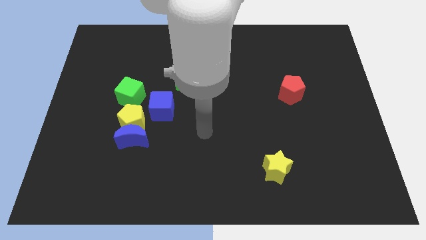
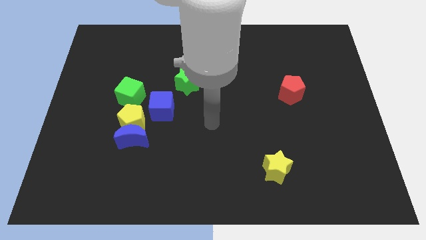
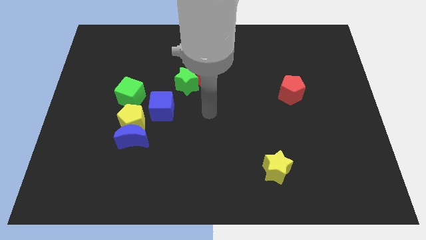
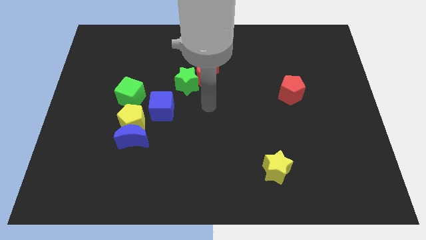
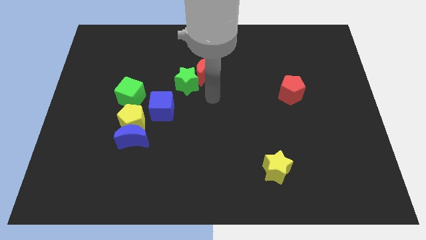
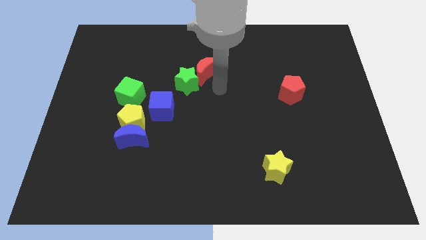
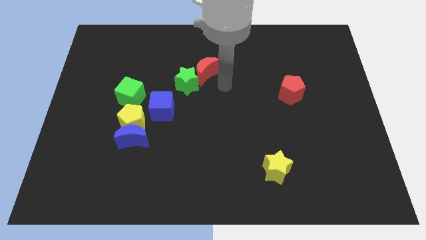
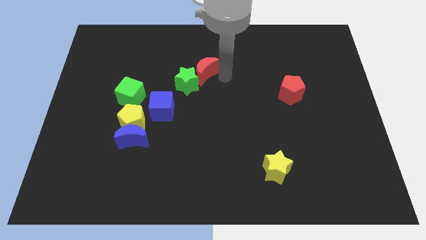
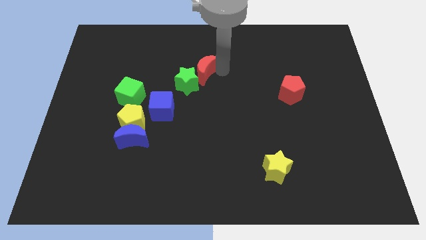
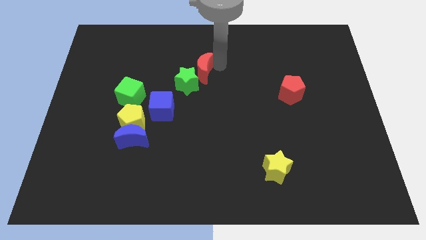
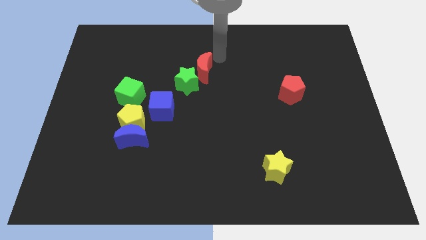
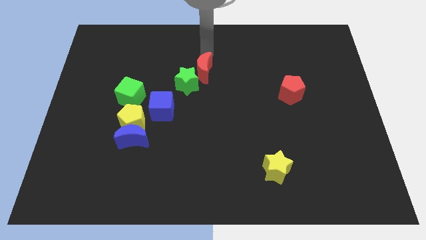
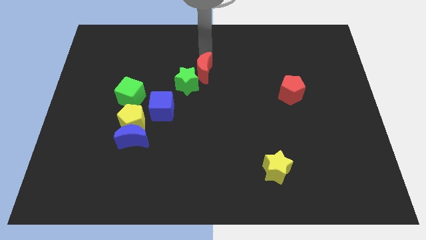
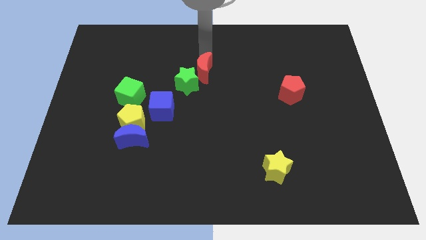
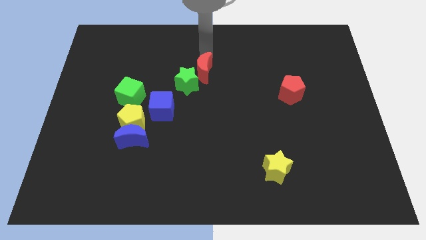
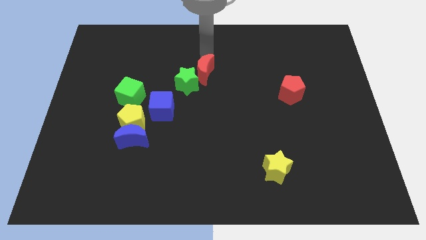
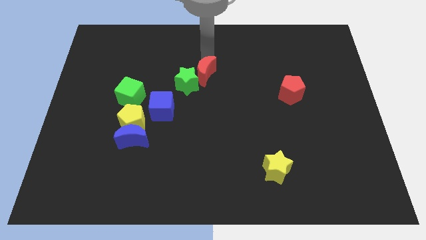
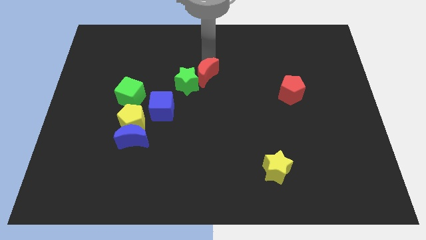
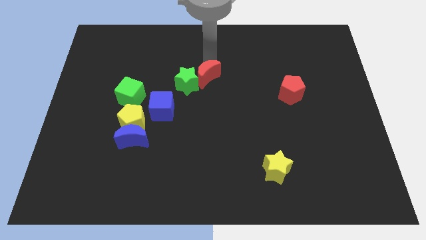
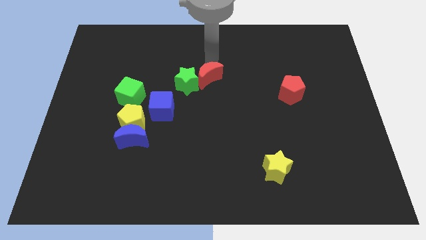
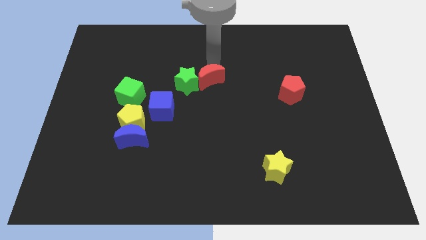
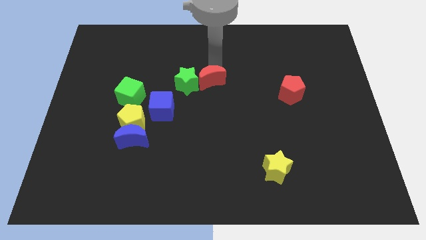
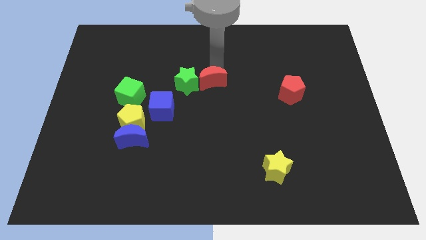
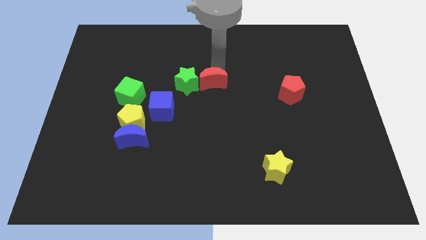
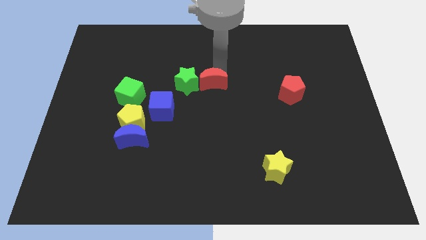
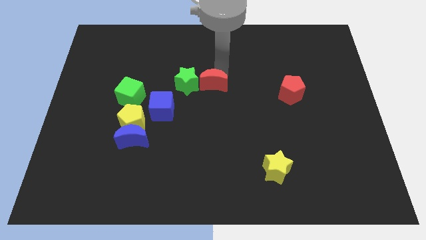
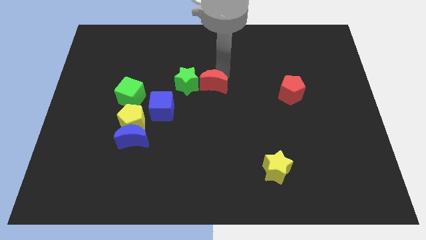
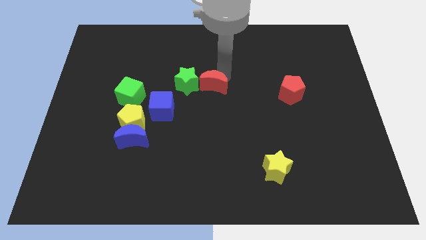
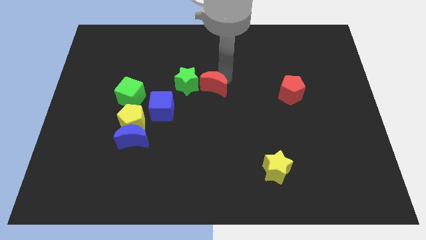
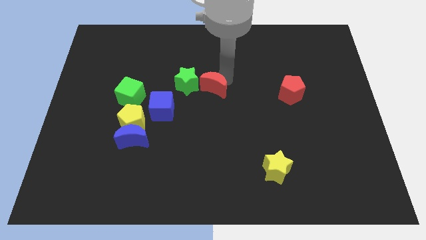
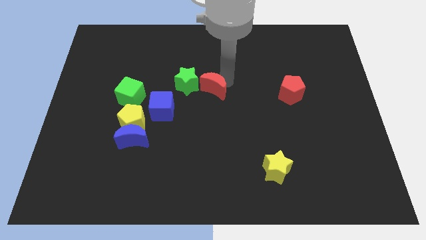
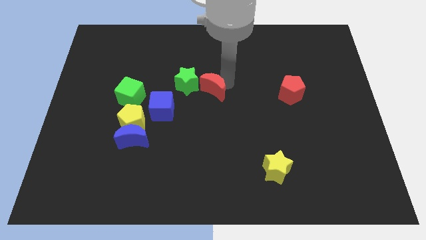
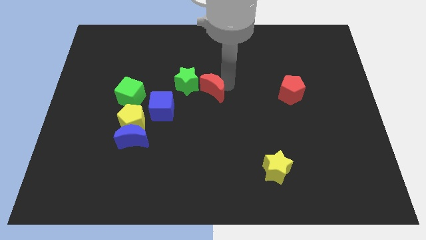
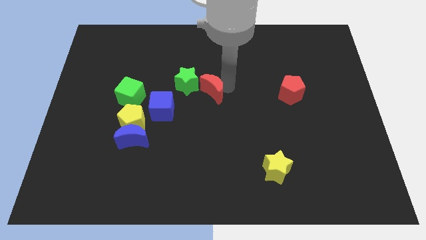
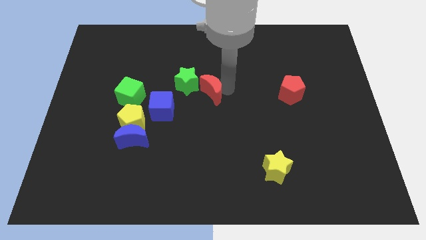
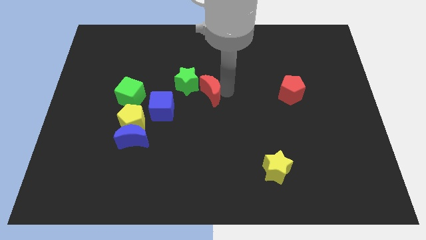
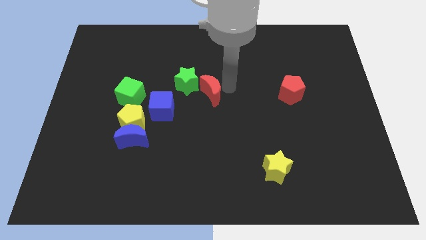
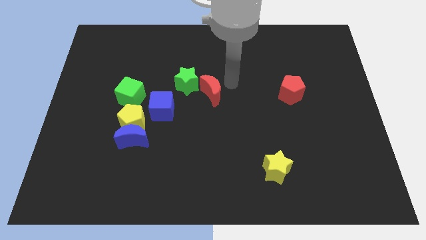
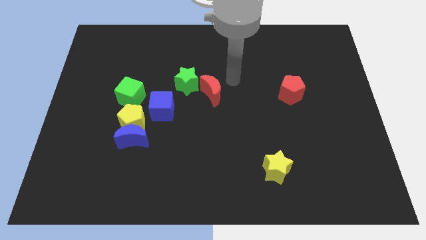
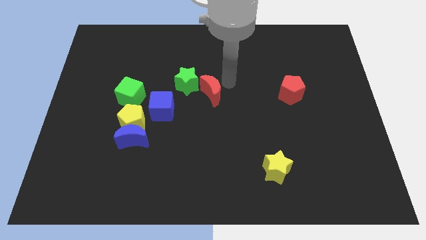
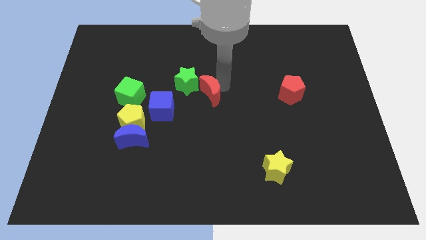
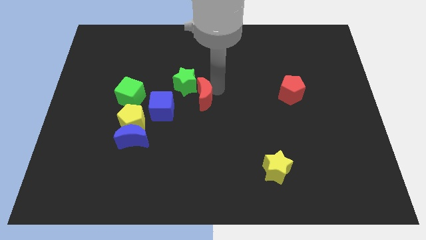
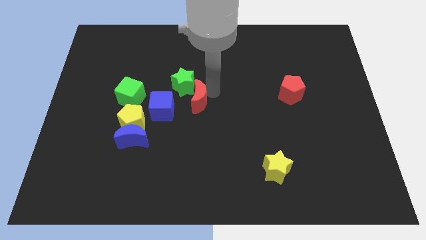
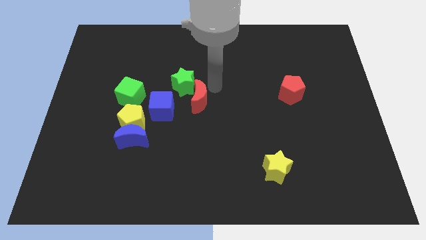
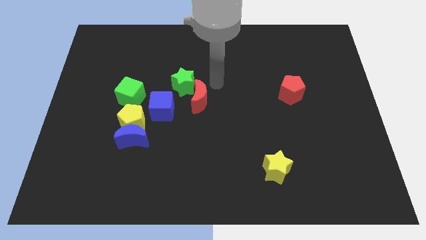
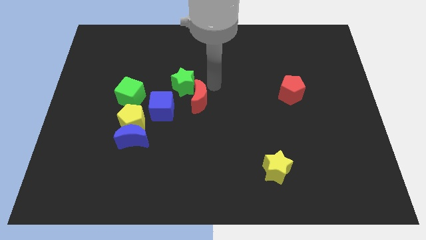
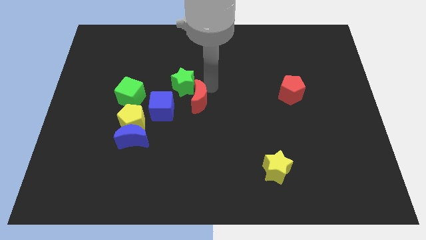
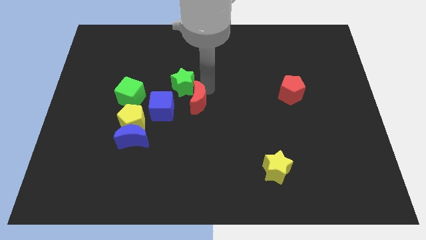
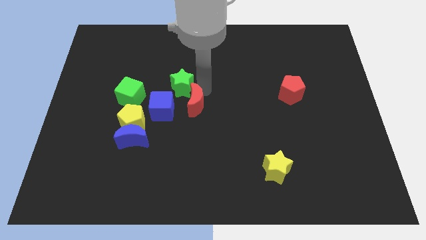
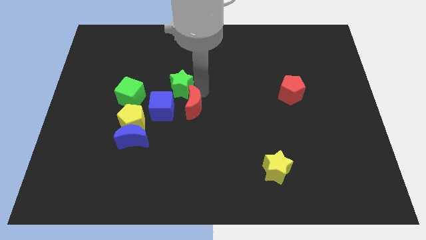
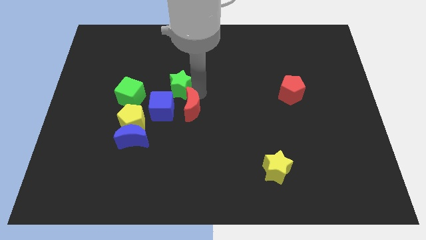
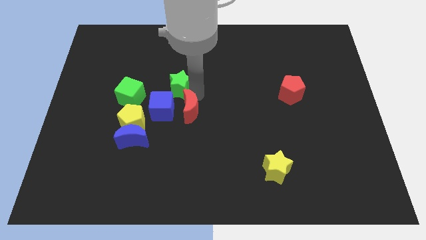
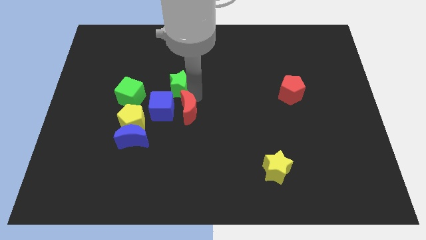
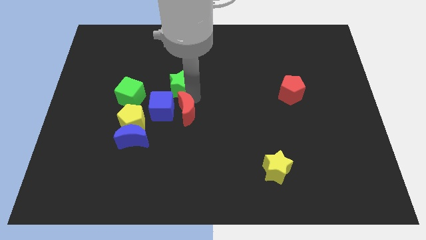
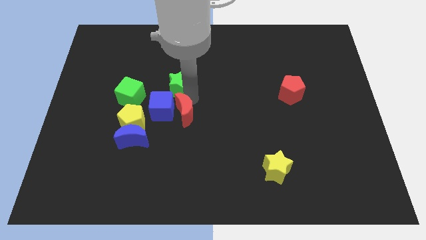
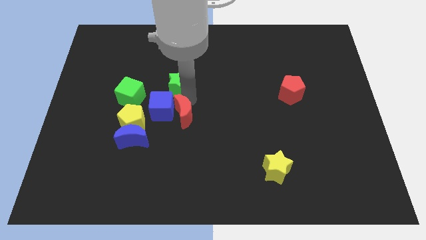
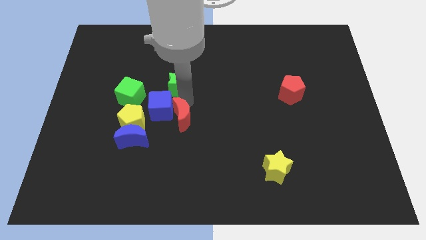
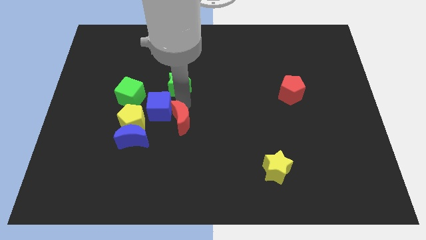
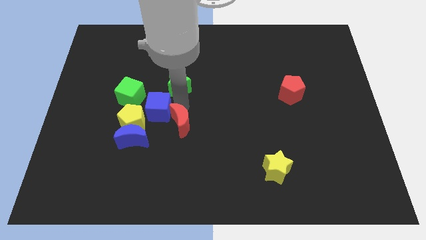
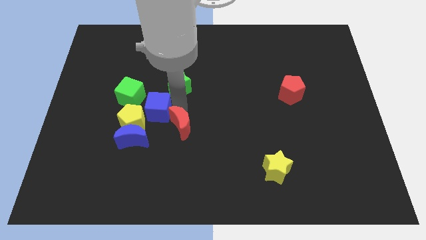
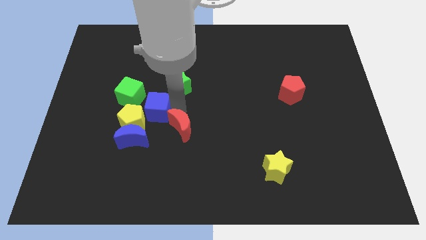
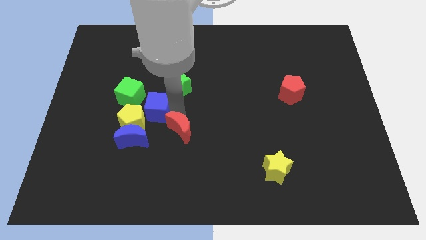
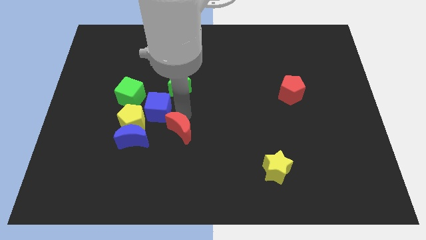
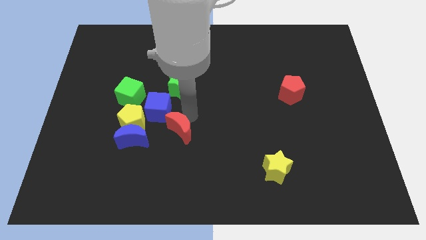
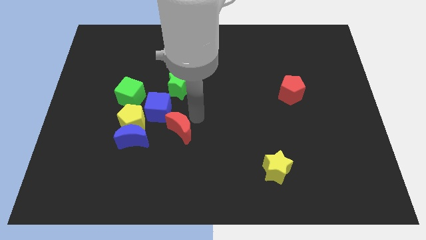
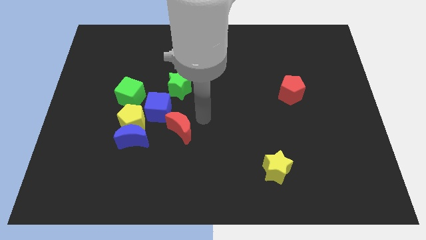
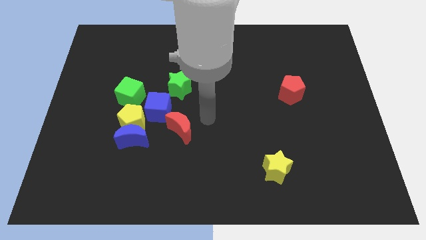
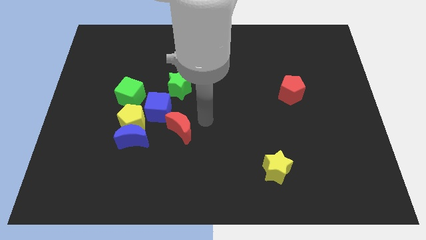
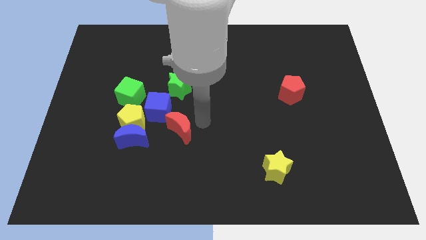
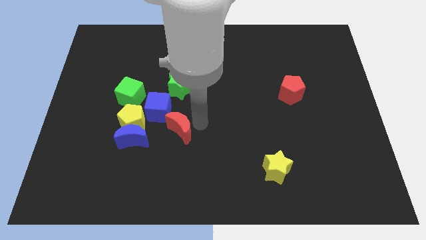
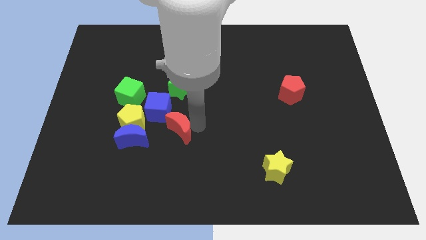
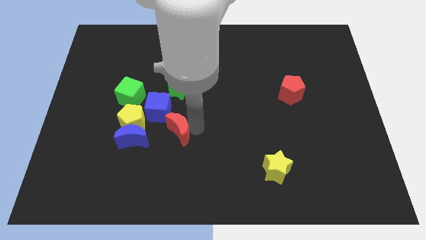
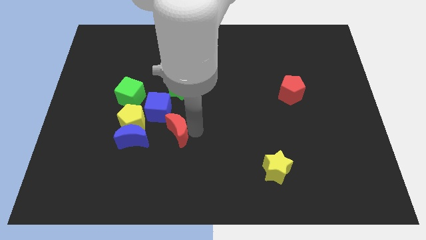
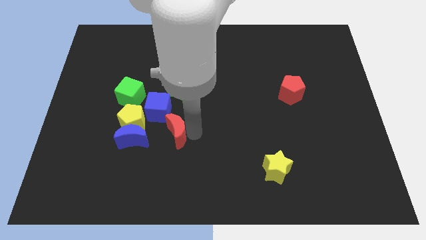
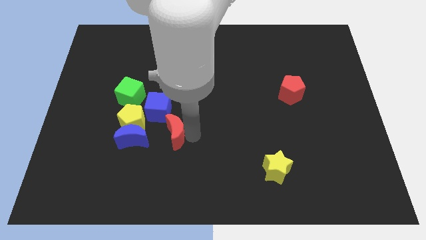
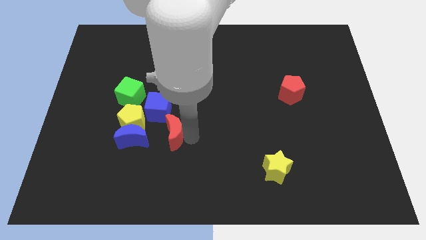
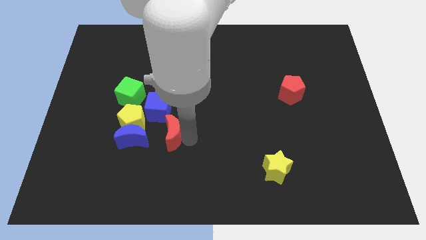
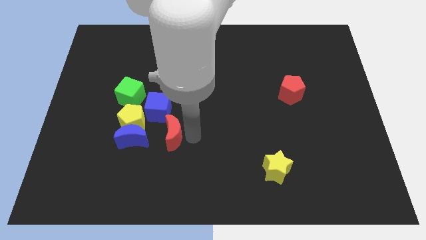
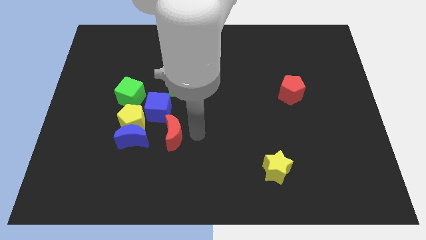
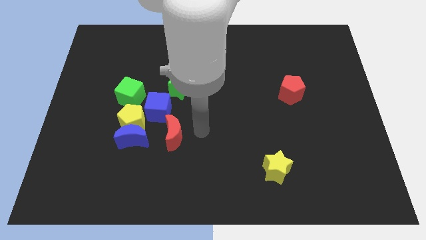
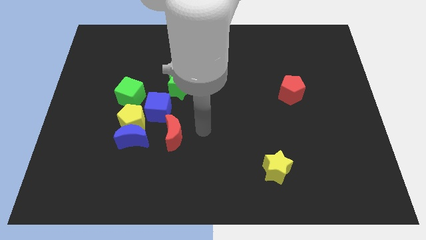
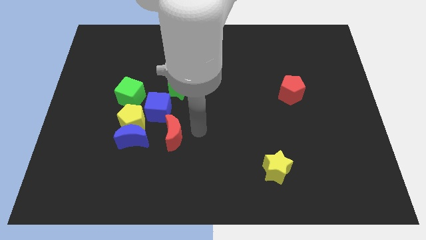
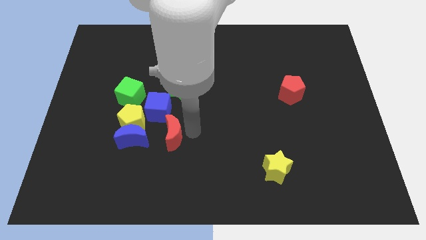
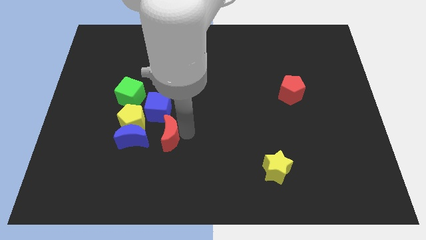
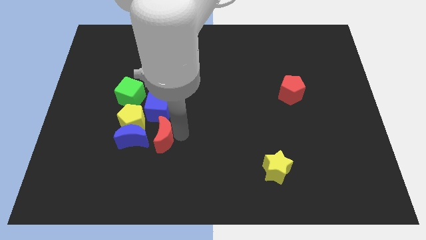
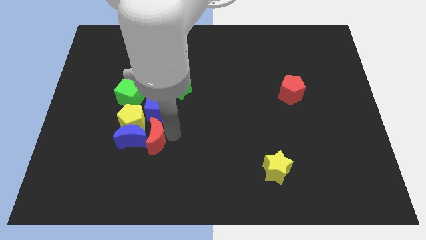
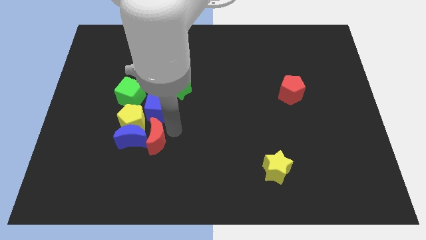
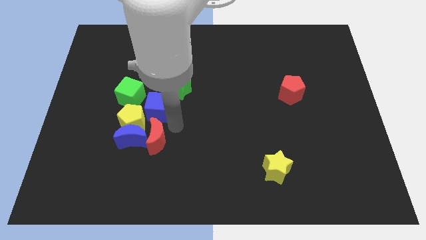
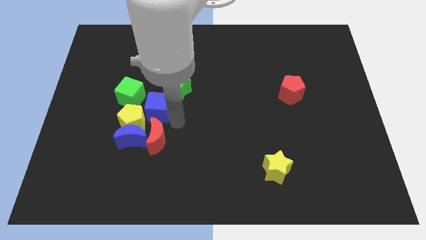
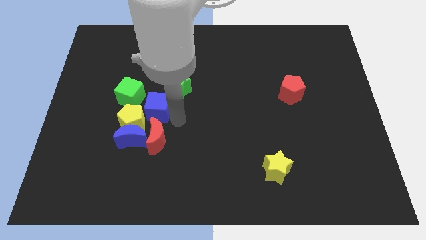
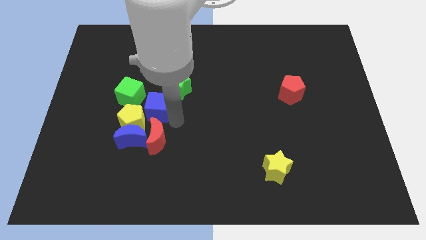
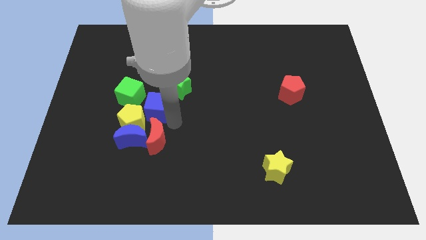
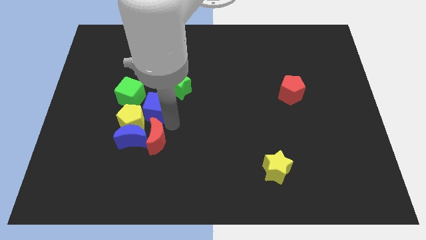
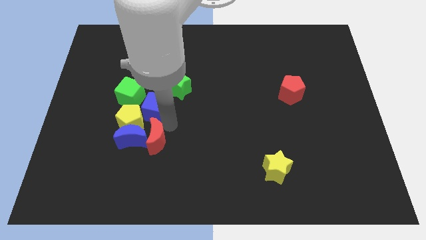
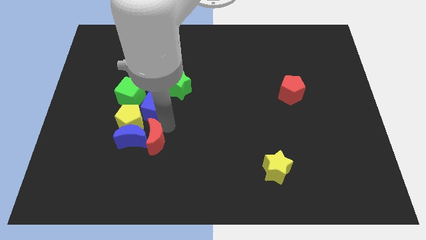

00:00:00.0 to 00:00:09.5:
slide the red moon down and then to the left
